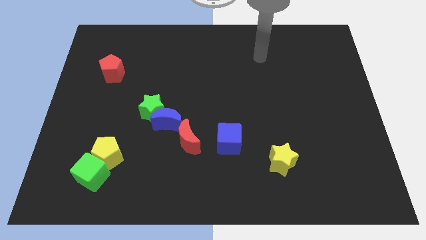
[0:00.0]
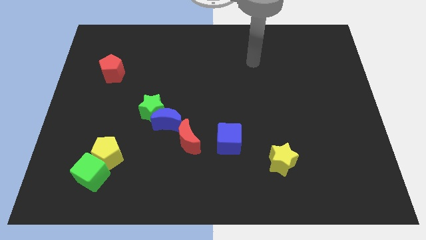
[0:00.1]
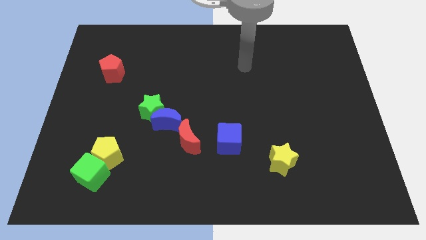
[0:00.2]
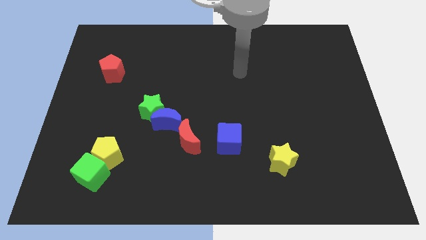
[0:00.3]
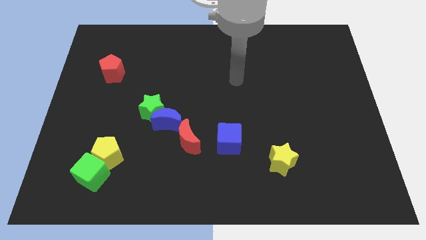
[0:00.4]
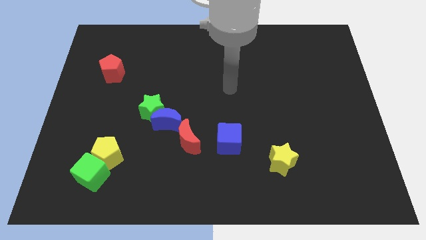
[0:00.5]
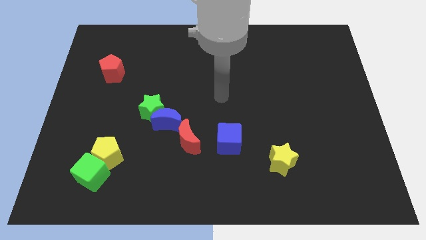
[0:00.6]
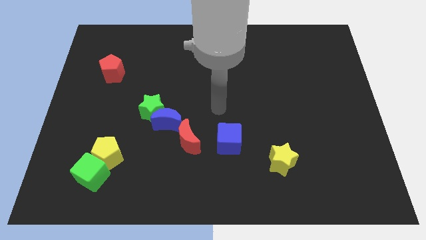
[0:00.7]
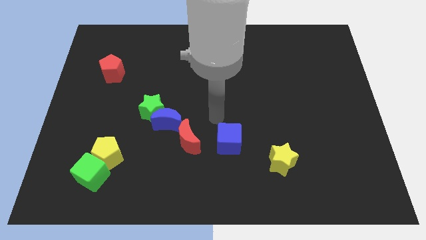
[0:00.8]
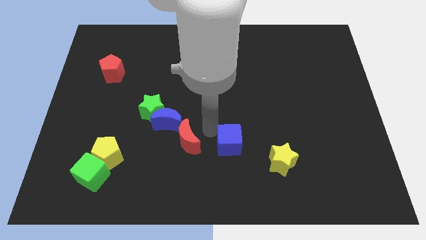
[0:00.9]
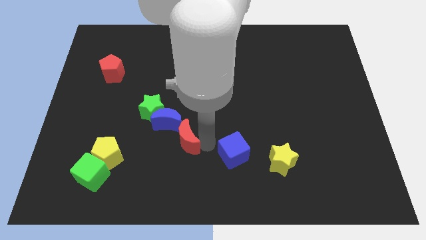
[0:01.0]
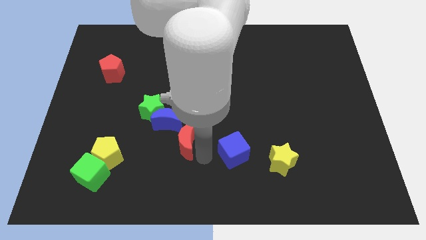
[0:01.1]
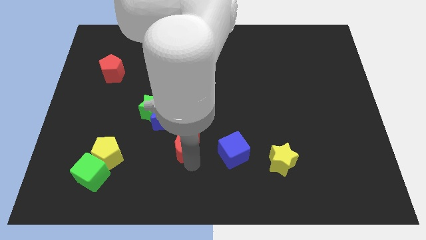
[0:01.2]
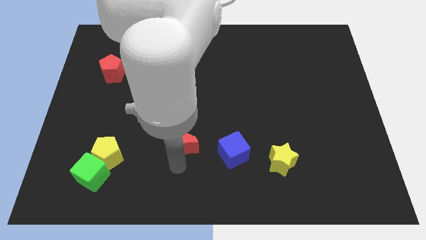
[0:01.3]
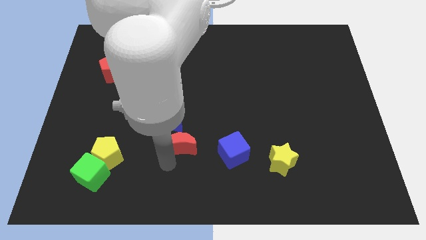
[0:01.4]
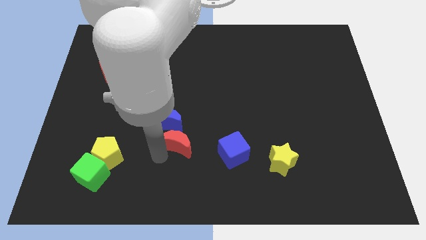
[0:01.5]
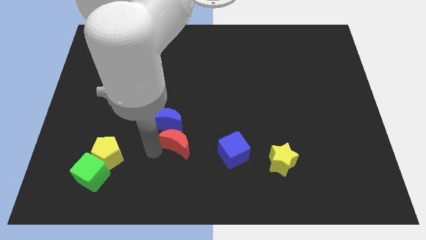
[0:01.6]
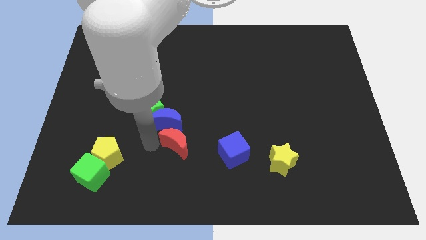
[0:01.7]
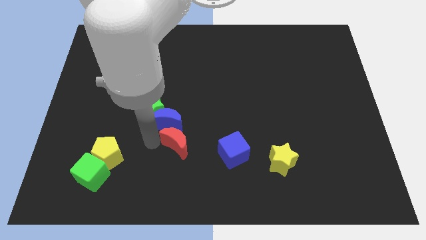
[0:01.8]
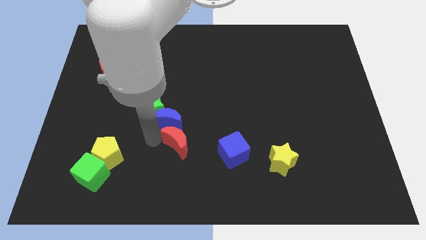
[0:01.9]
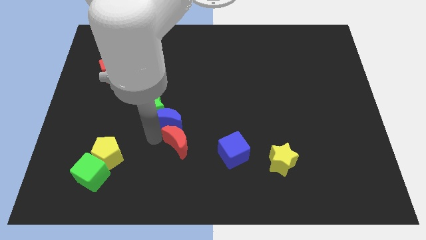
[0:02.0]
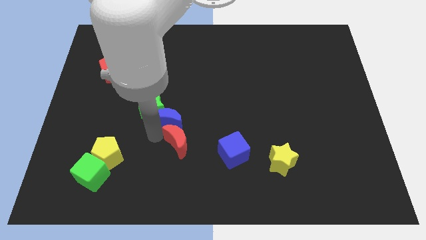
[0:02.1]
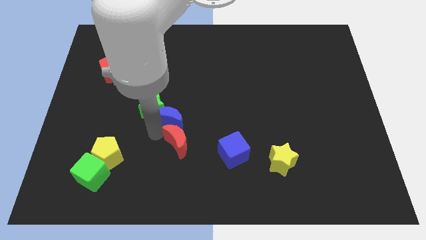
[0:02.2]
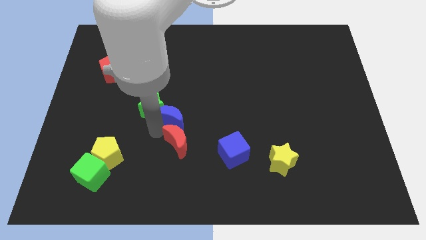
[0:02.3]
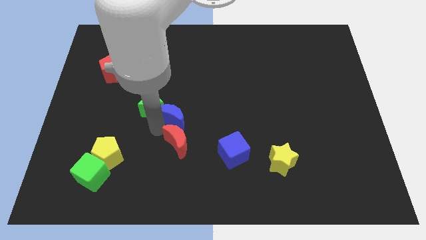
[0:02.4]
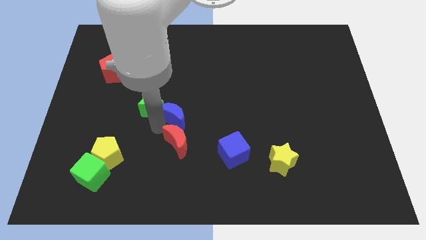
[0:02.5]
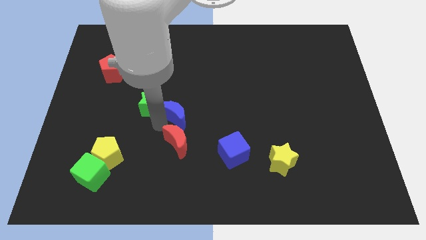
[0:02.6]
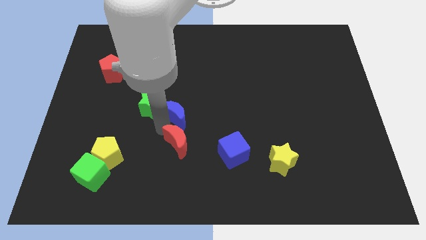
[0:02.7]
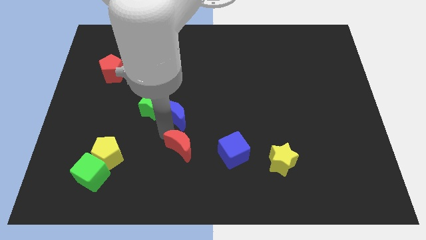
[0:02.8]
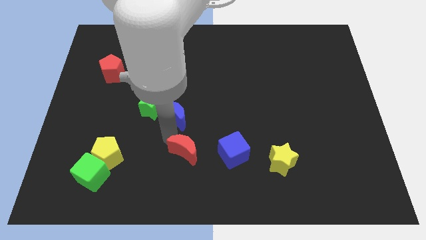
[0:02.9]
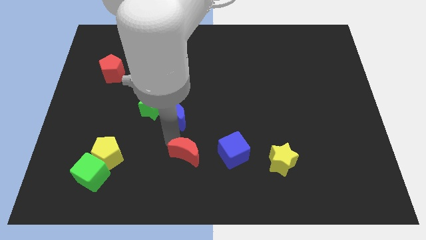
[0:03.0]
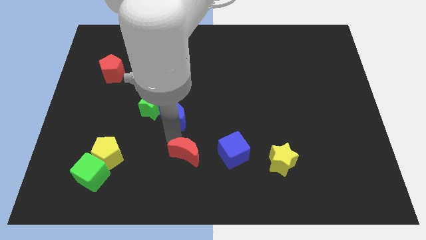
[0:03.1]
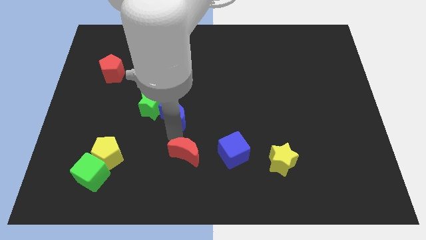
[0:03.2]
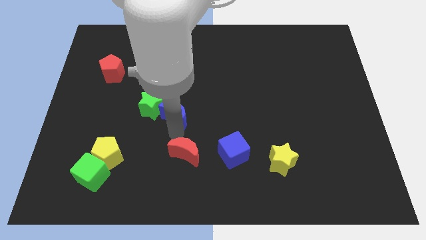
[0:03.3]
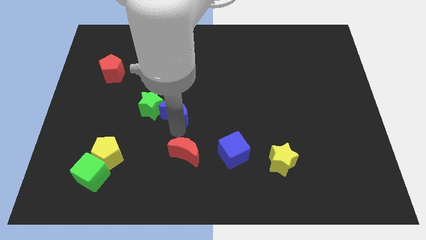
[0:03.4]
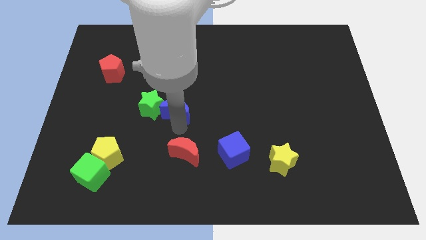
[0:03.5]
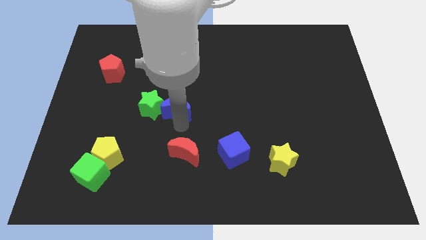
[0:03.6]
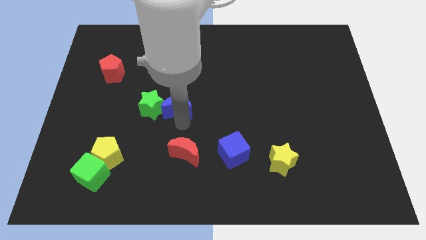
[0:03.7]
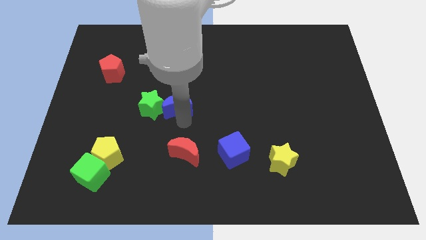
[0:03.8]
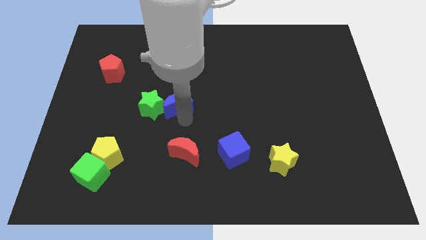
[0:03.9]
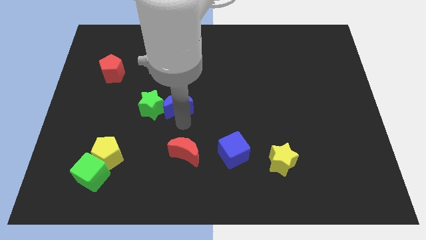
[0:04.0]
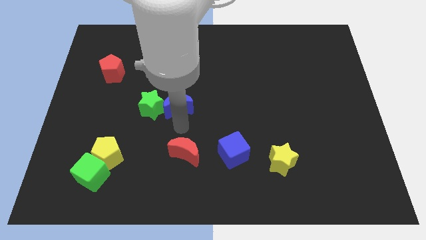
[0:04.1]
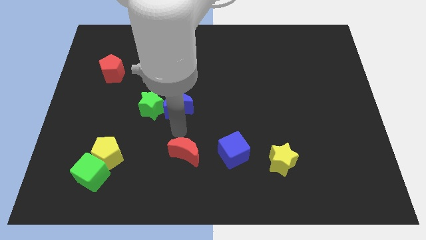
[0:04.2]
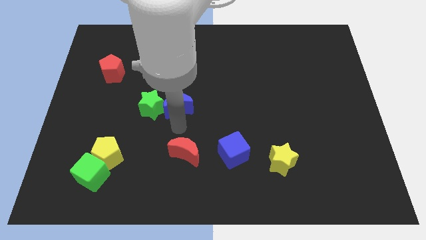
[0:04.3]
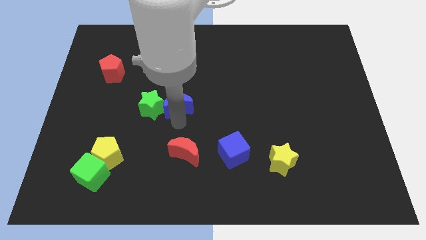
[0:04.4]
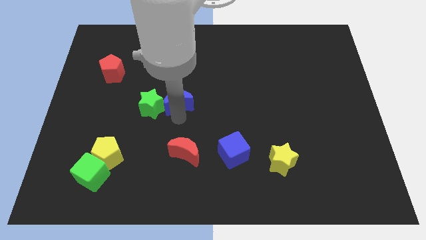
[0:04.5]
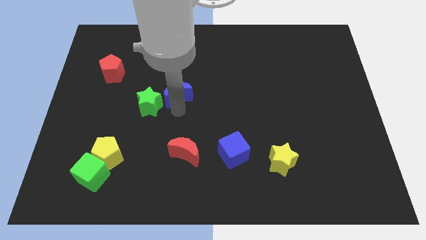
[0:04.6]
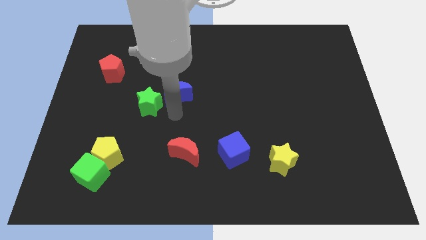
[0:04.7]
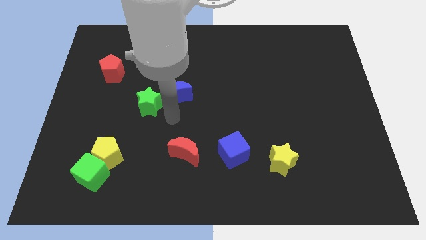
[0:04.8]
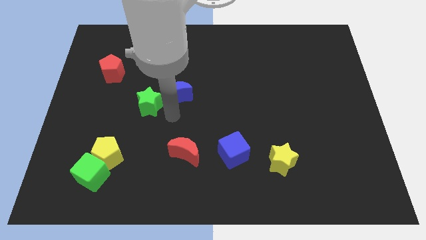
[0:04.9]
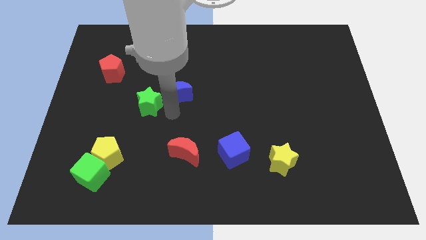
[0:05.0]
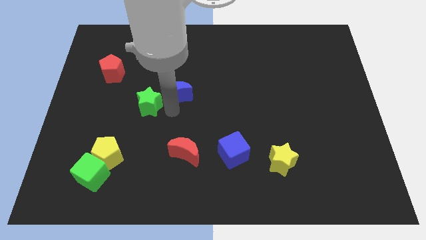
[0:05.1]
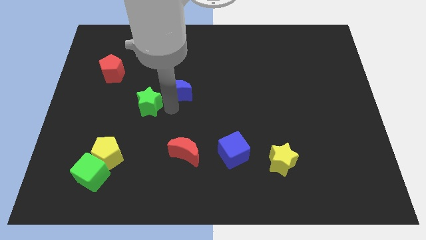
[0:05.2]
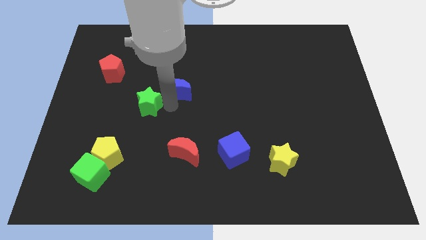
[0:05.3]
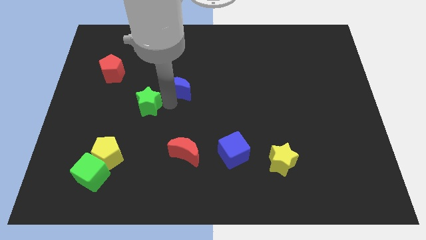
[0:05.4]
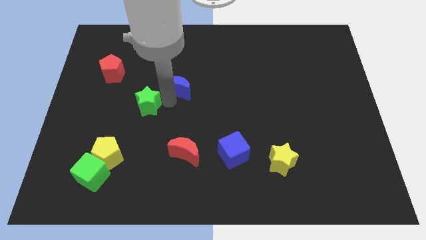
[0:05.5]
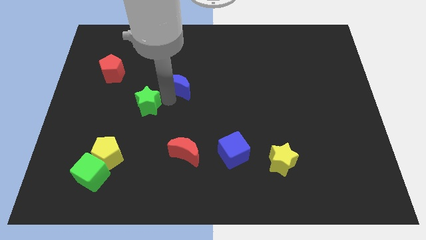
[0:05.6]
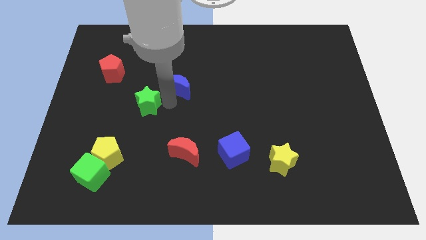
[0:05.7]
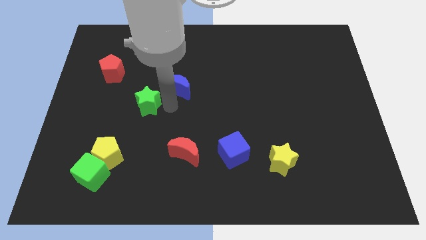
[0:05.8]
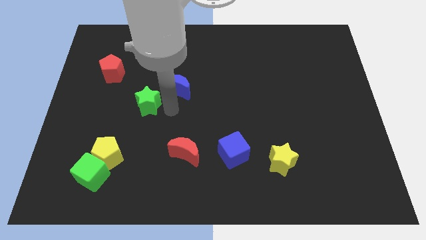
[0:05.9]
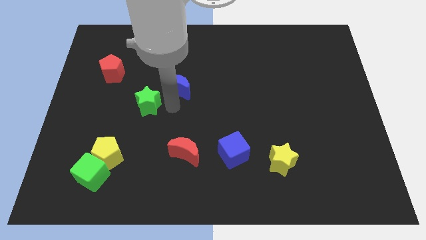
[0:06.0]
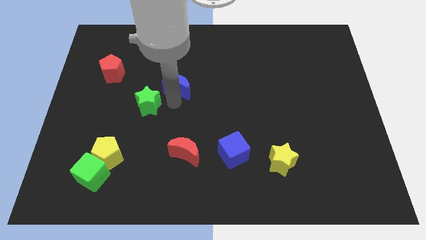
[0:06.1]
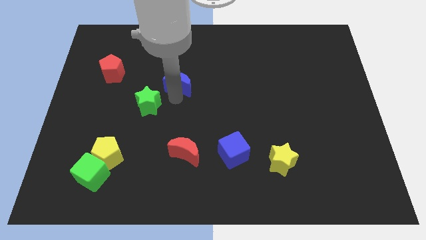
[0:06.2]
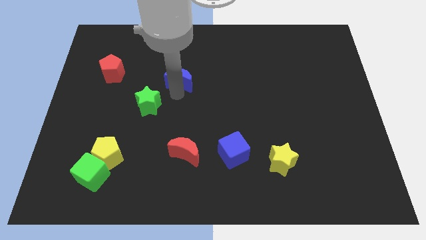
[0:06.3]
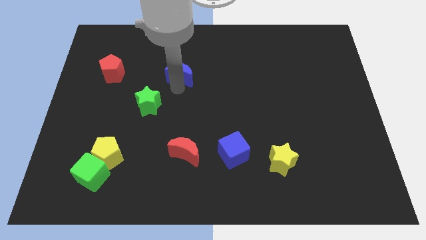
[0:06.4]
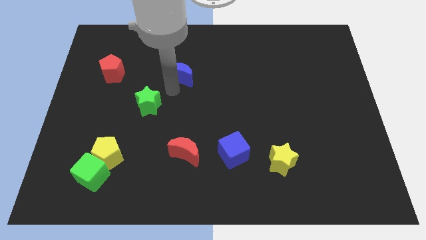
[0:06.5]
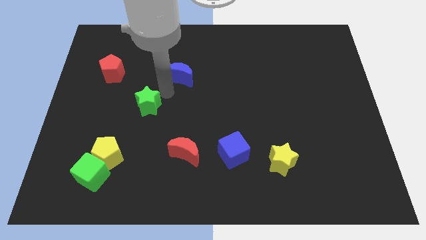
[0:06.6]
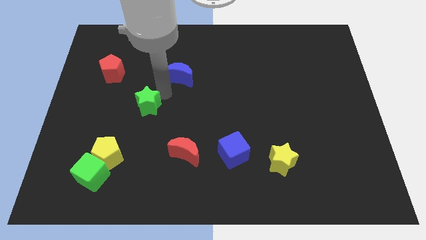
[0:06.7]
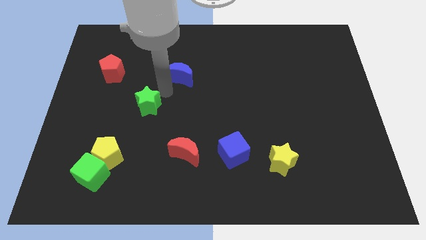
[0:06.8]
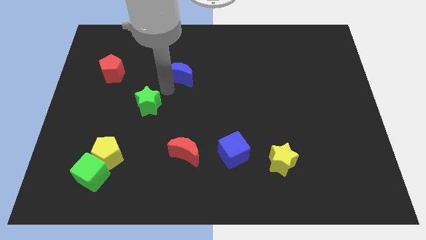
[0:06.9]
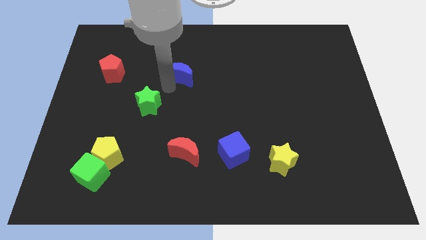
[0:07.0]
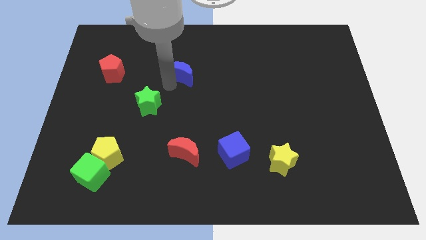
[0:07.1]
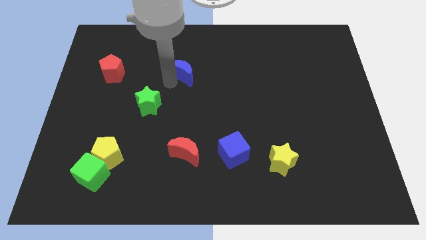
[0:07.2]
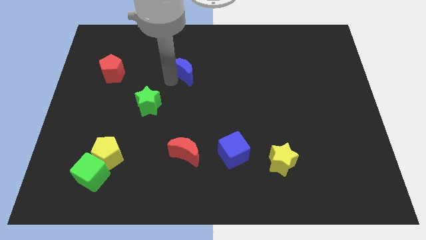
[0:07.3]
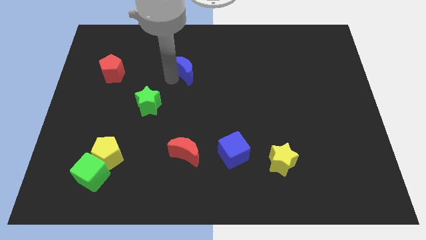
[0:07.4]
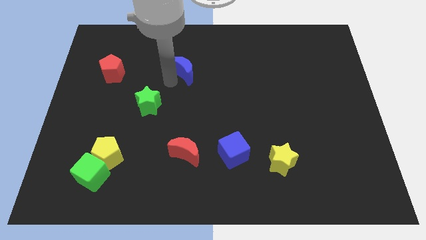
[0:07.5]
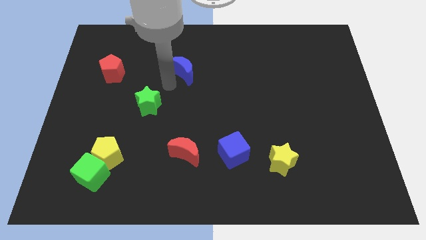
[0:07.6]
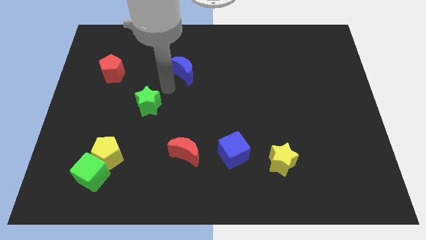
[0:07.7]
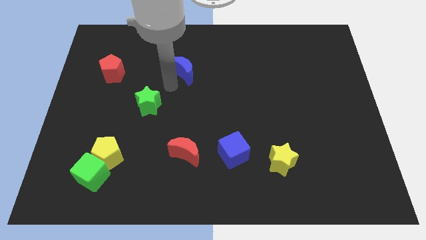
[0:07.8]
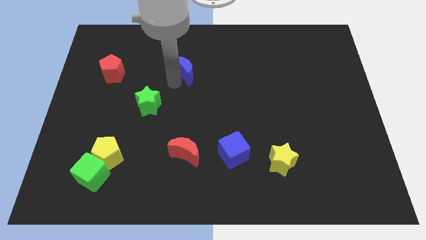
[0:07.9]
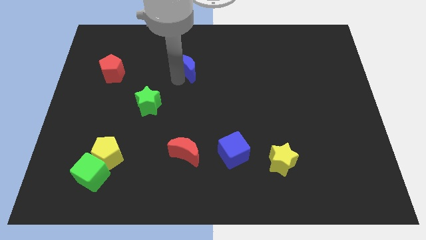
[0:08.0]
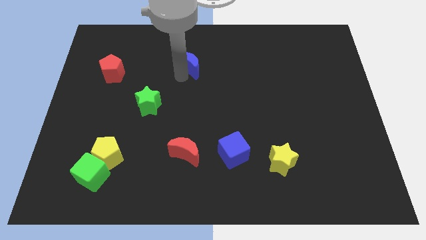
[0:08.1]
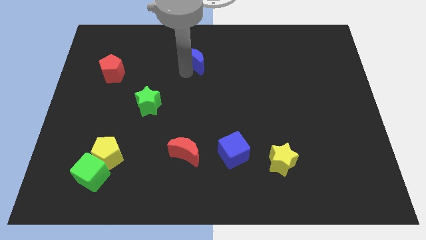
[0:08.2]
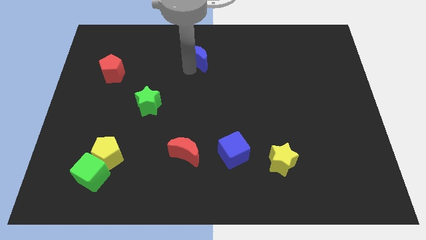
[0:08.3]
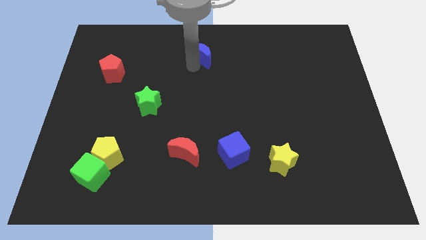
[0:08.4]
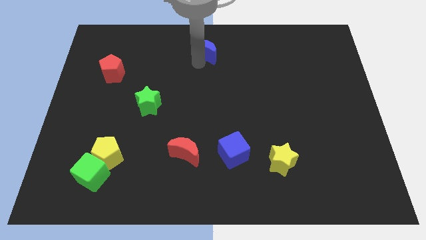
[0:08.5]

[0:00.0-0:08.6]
move the blue moon to the top side
